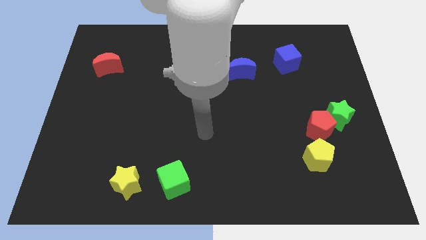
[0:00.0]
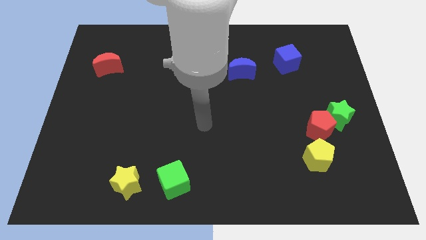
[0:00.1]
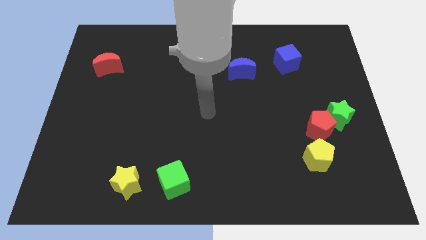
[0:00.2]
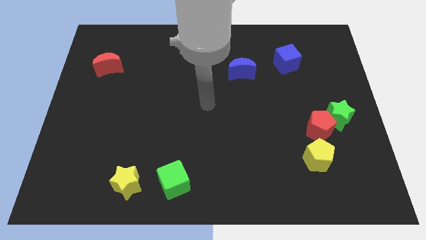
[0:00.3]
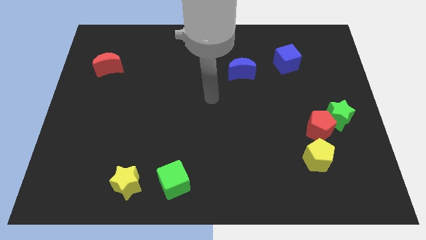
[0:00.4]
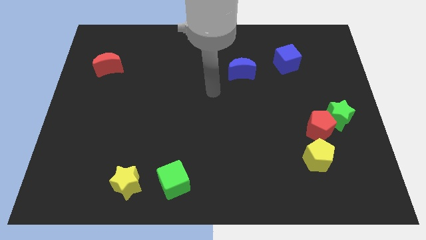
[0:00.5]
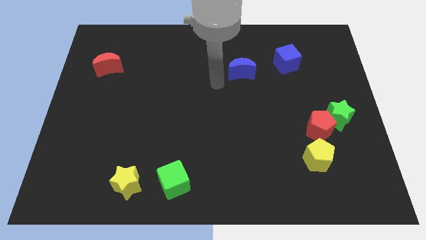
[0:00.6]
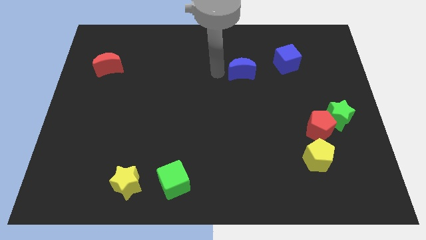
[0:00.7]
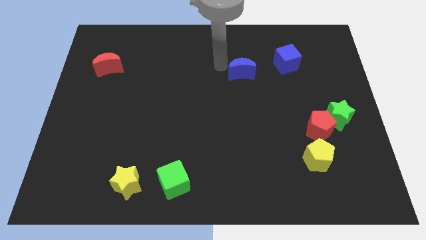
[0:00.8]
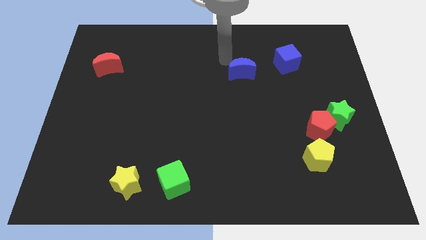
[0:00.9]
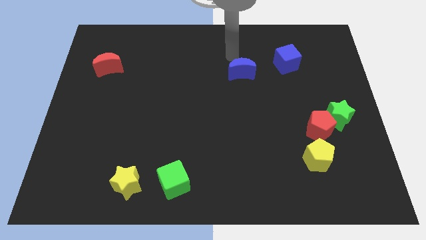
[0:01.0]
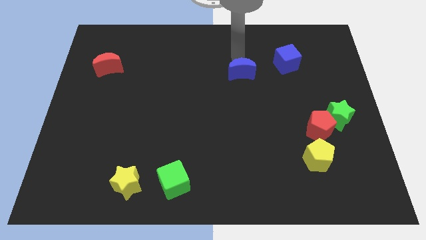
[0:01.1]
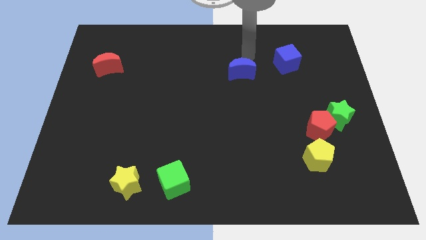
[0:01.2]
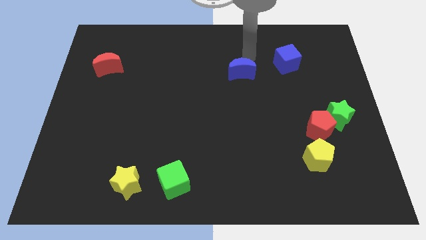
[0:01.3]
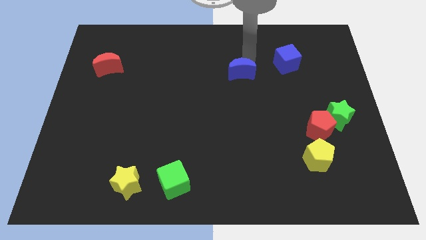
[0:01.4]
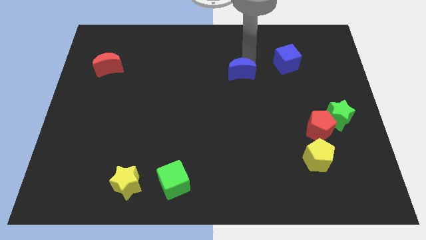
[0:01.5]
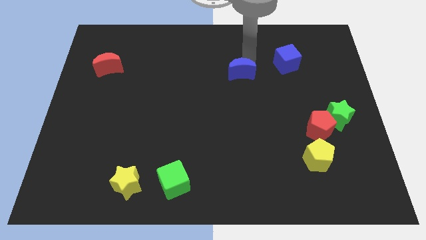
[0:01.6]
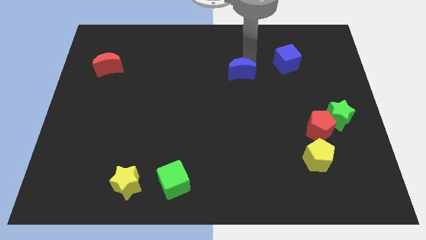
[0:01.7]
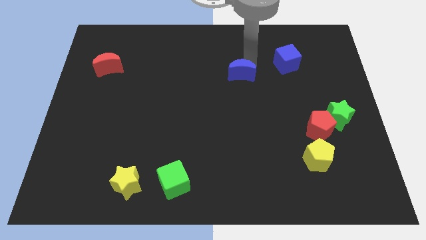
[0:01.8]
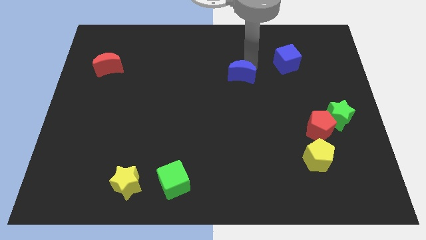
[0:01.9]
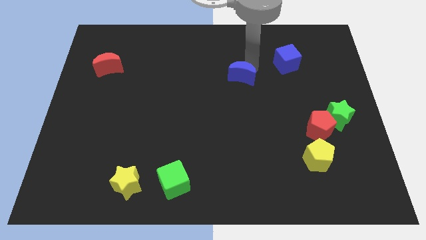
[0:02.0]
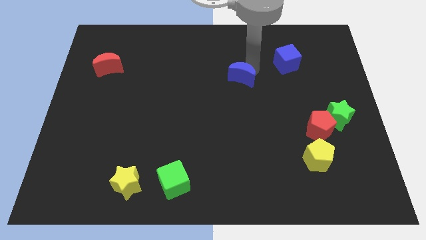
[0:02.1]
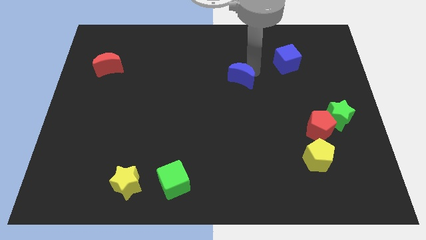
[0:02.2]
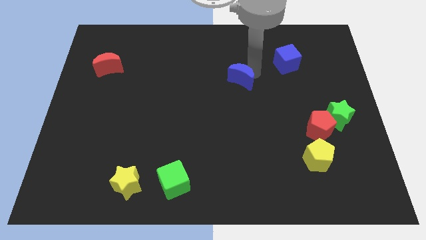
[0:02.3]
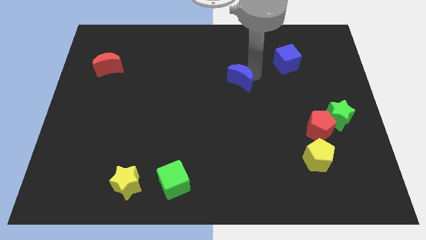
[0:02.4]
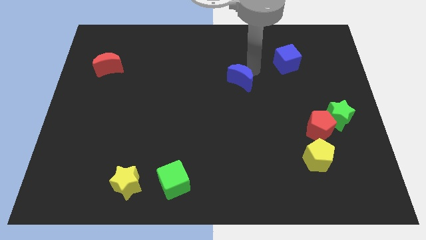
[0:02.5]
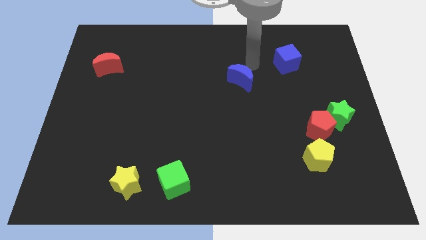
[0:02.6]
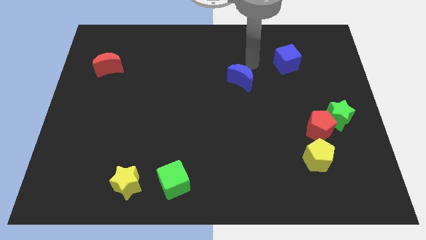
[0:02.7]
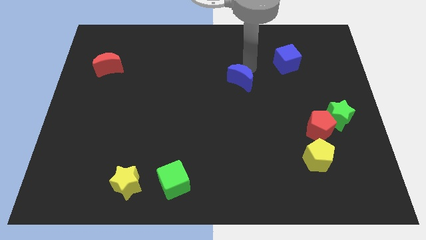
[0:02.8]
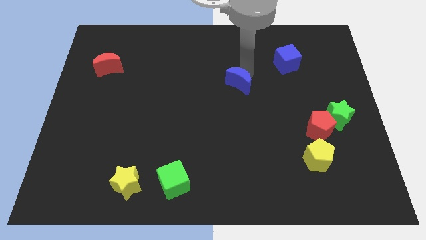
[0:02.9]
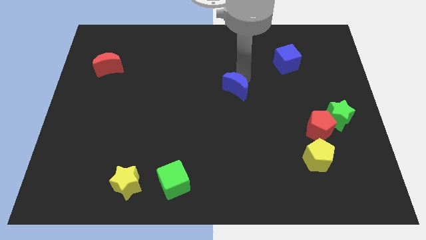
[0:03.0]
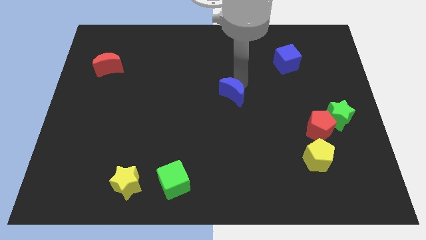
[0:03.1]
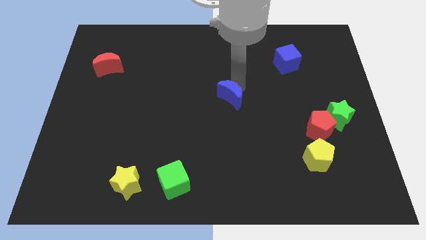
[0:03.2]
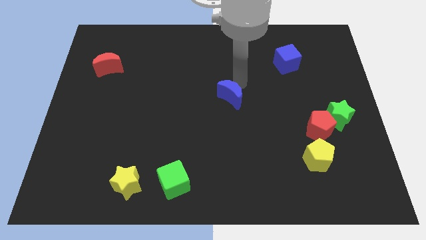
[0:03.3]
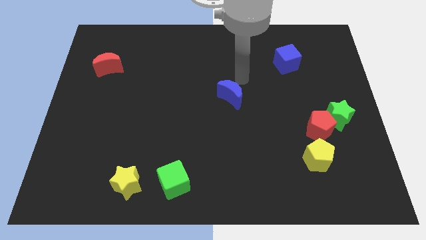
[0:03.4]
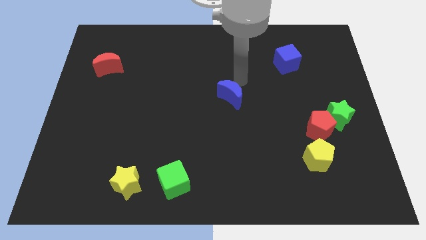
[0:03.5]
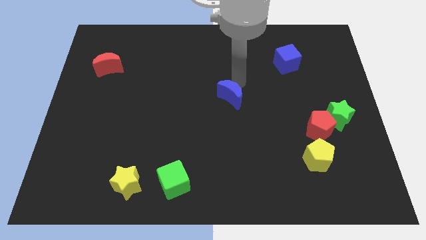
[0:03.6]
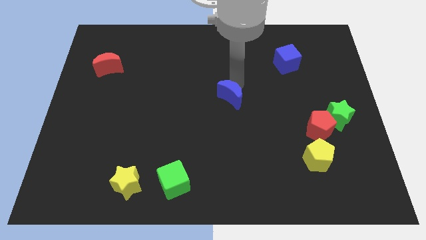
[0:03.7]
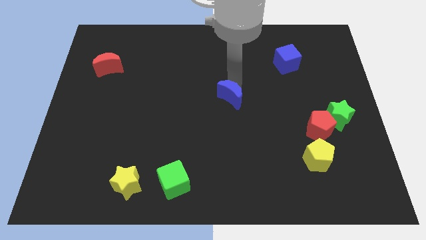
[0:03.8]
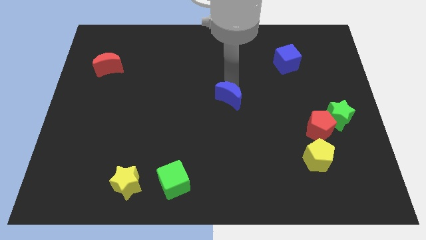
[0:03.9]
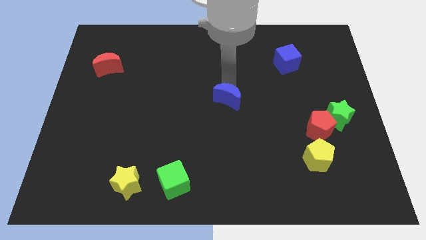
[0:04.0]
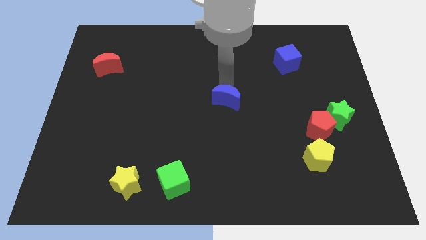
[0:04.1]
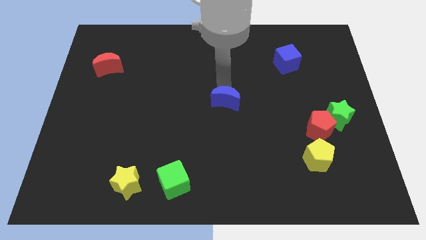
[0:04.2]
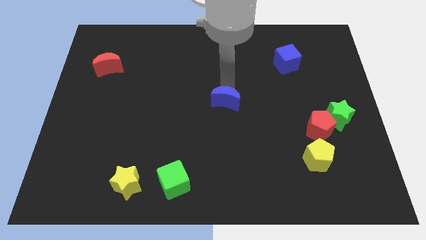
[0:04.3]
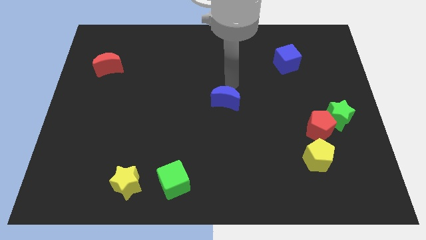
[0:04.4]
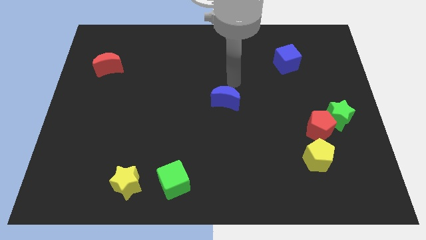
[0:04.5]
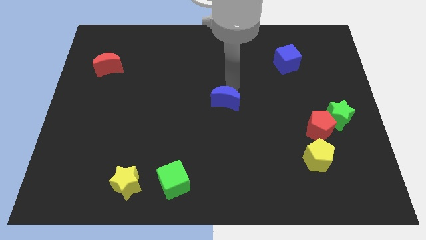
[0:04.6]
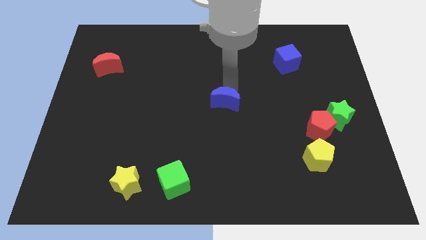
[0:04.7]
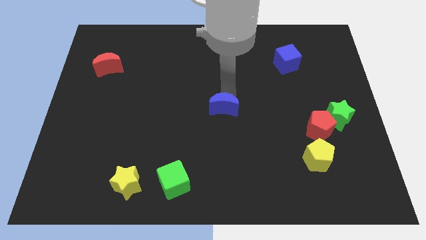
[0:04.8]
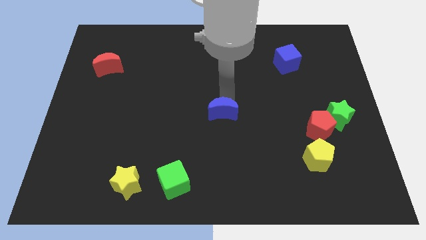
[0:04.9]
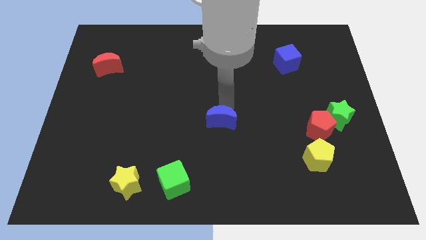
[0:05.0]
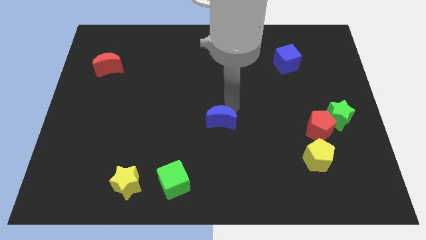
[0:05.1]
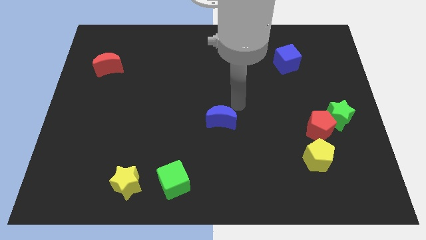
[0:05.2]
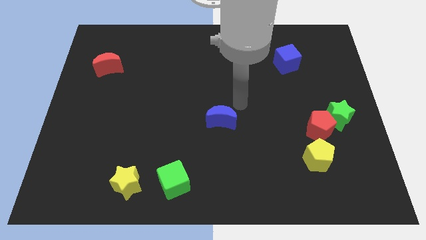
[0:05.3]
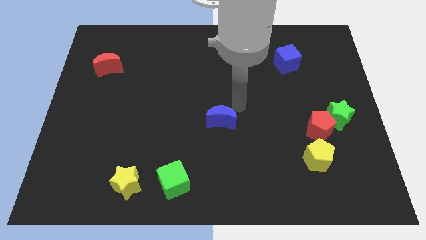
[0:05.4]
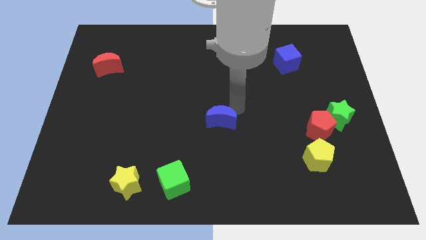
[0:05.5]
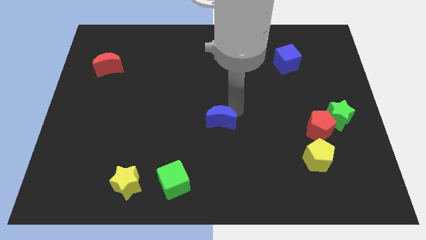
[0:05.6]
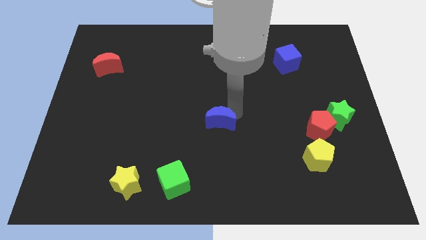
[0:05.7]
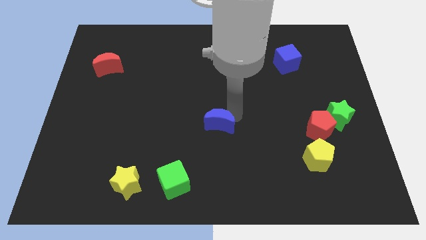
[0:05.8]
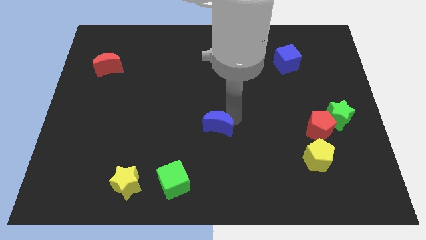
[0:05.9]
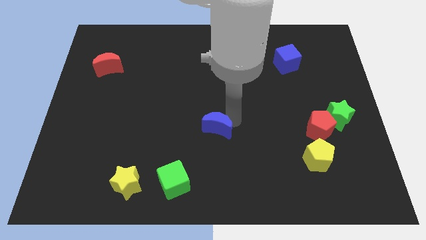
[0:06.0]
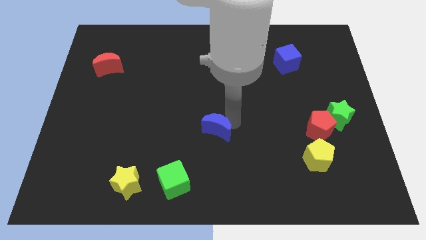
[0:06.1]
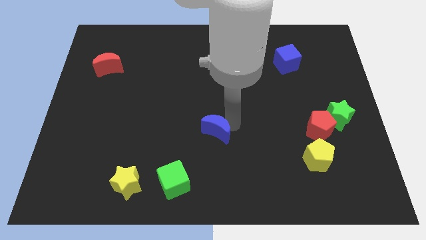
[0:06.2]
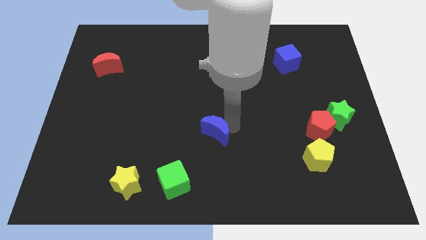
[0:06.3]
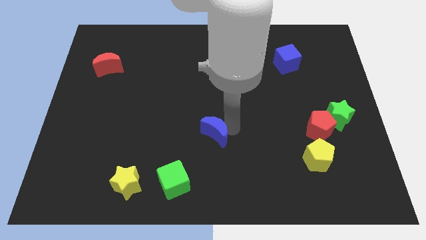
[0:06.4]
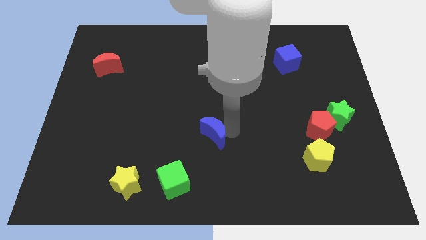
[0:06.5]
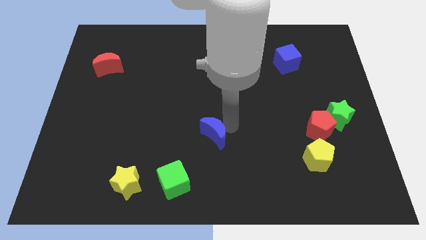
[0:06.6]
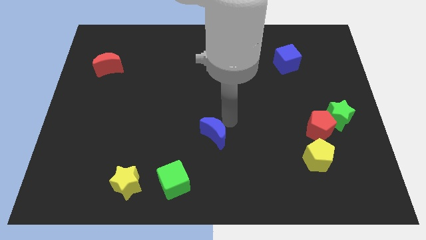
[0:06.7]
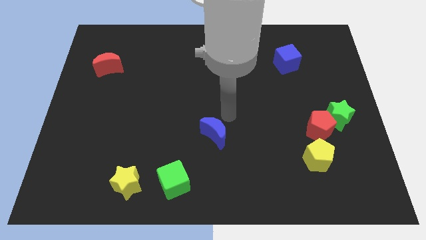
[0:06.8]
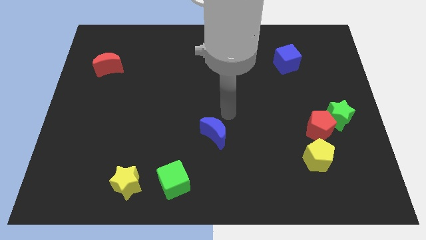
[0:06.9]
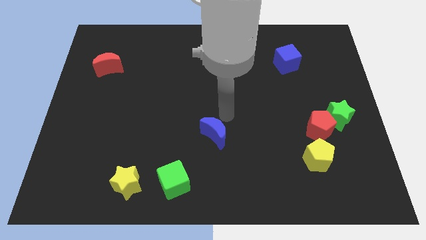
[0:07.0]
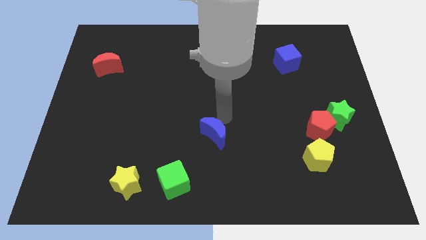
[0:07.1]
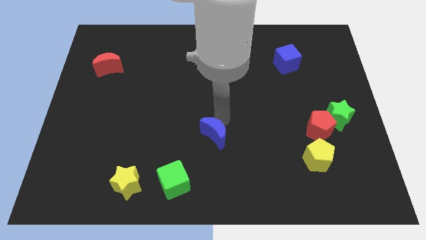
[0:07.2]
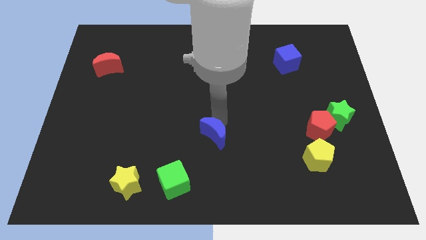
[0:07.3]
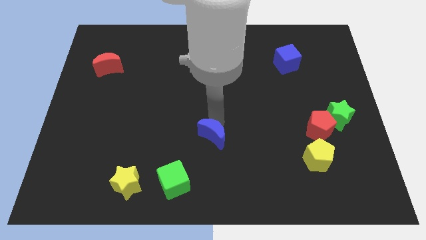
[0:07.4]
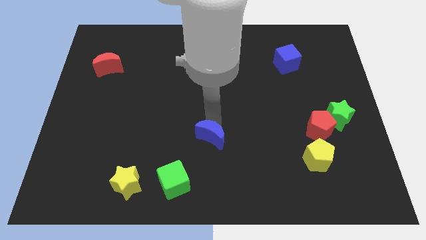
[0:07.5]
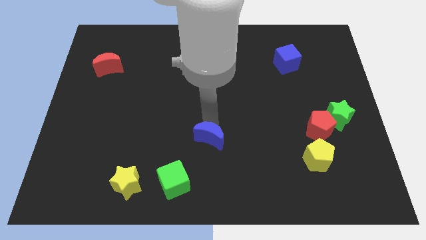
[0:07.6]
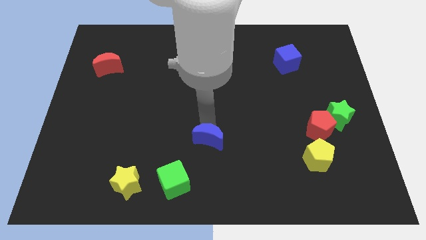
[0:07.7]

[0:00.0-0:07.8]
push the blue moon to the top right side of the green cube
